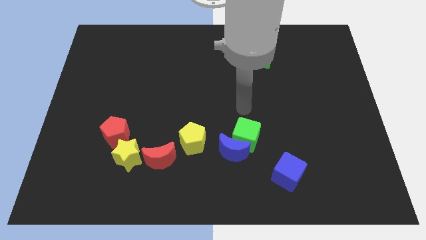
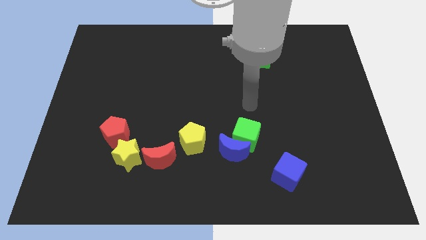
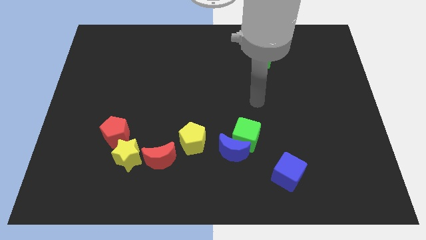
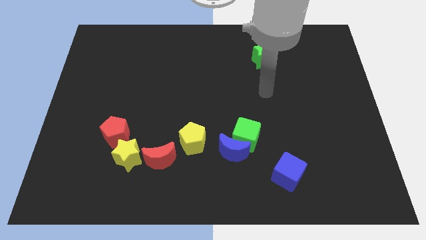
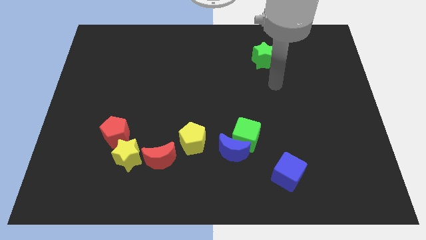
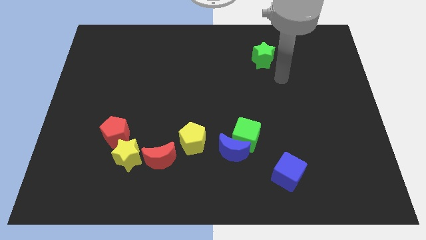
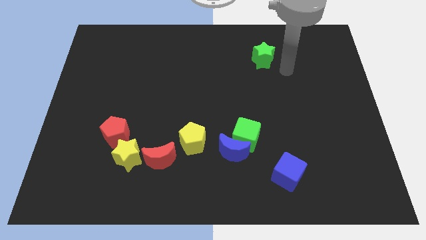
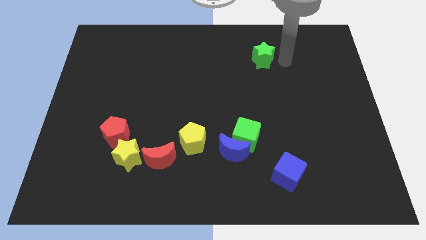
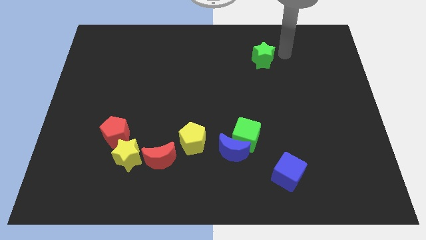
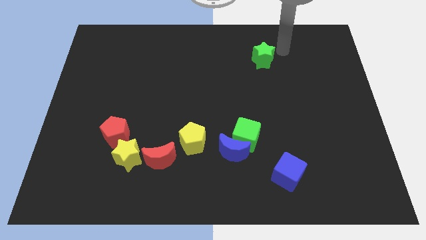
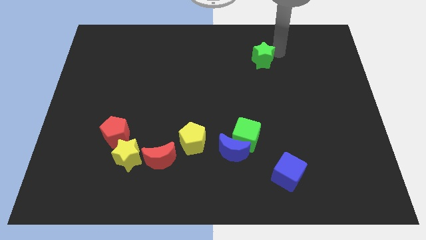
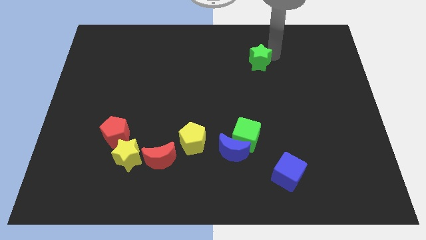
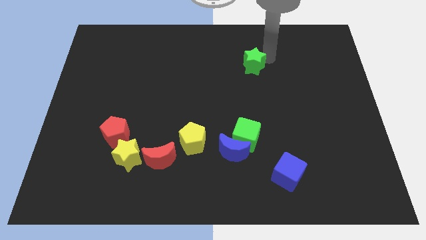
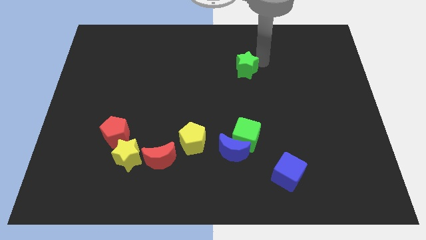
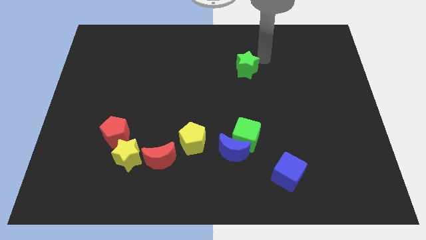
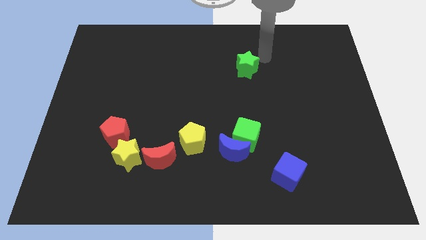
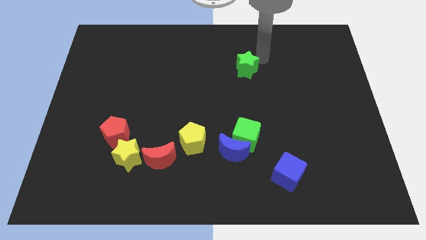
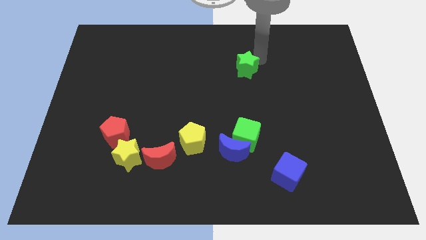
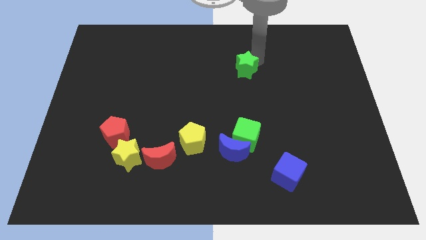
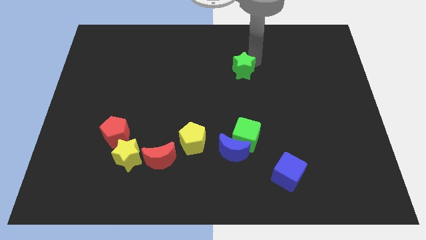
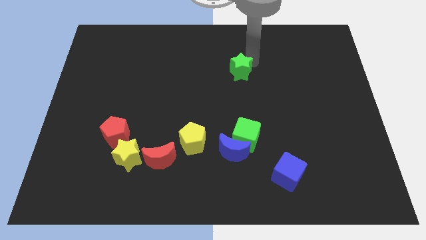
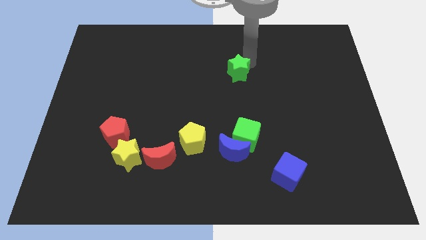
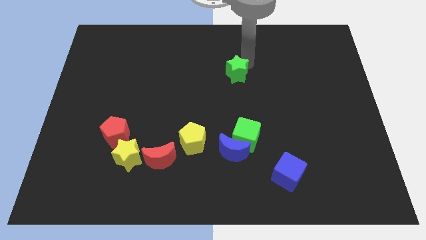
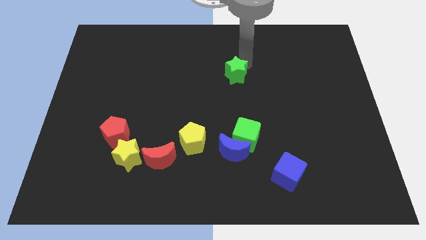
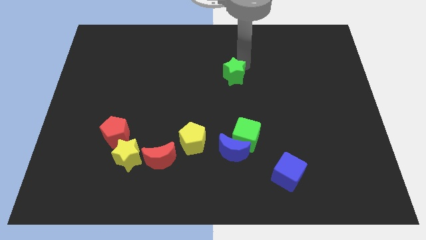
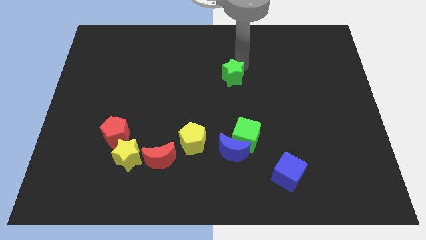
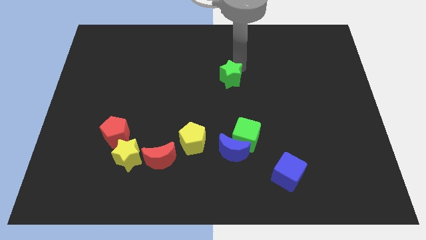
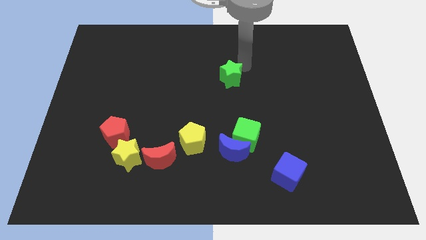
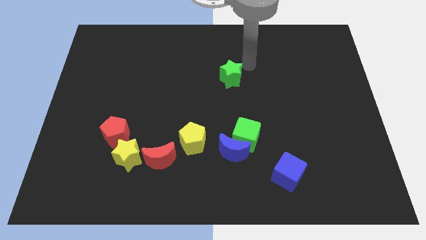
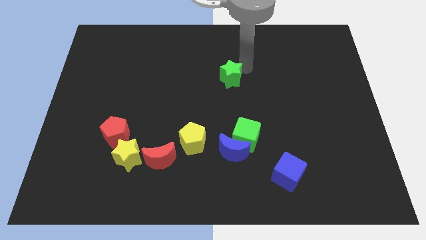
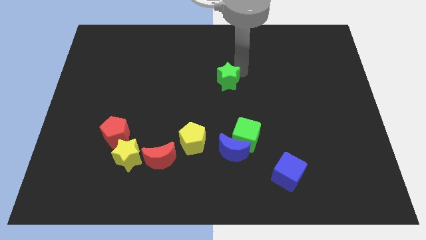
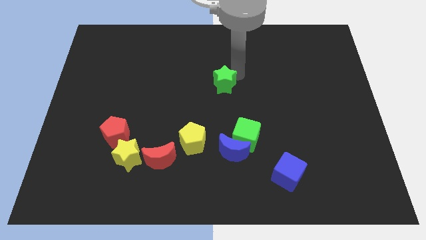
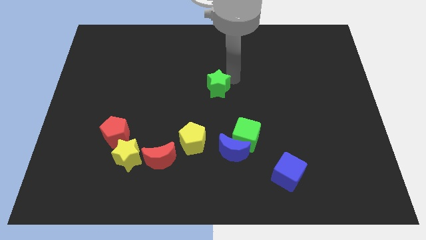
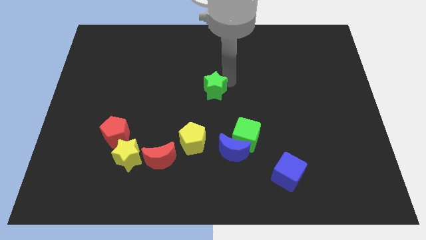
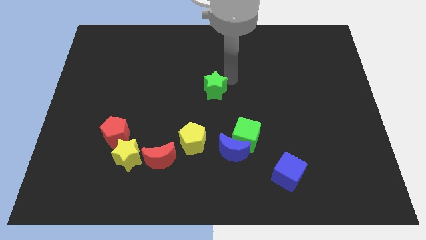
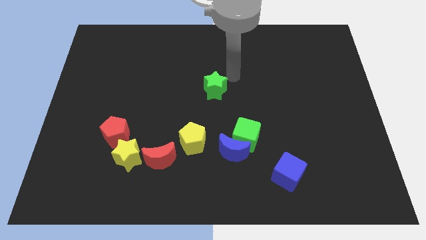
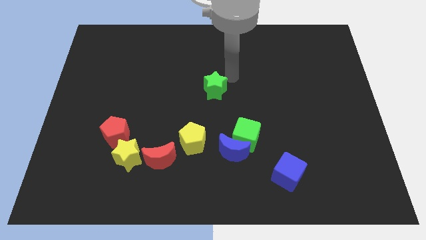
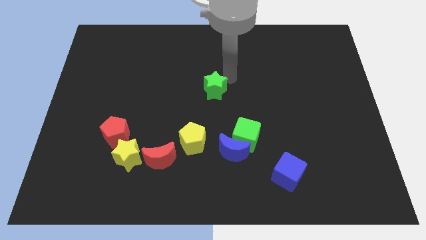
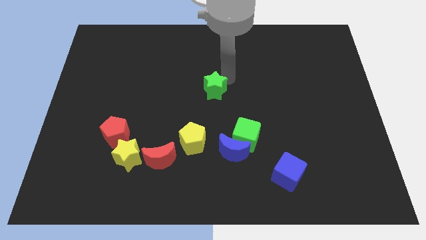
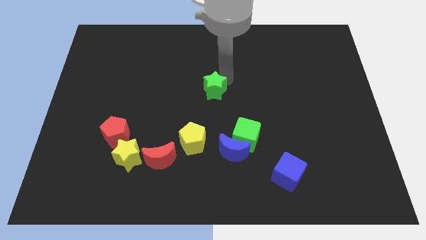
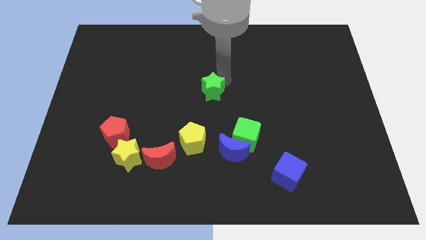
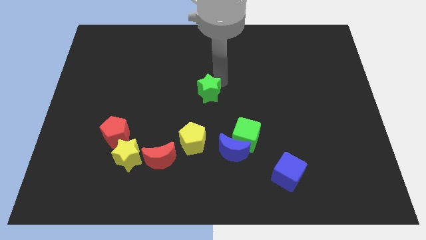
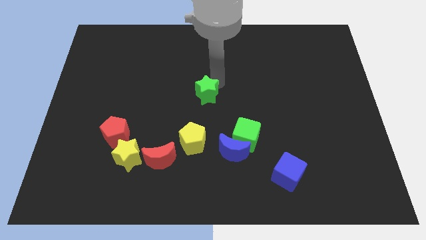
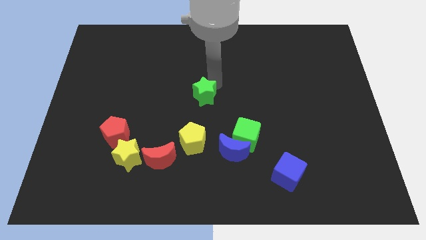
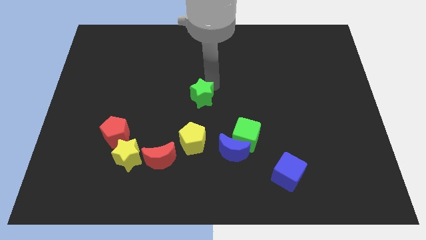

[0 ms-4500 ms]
slide the green star diagonally downwards and left

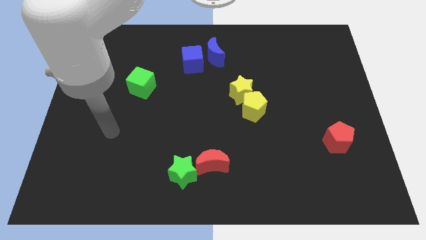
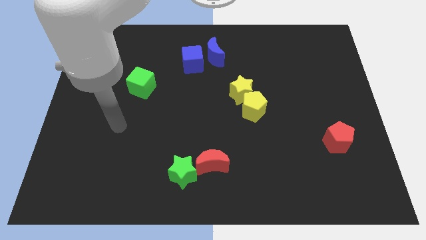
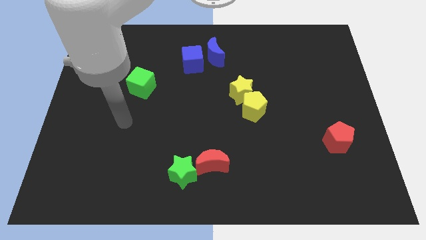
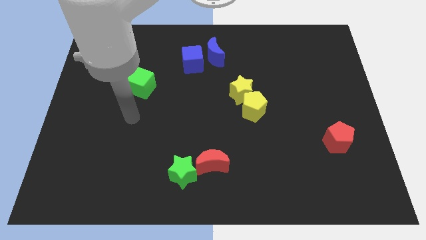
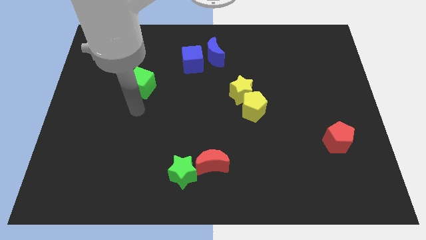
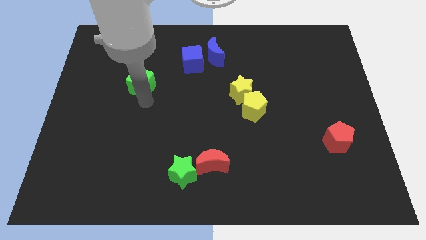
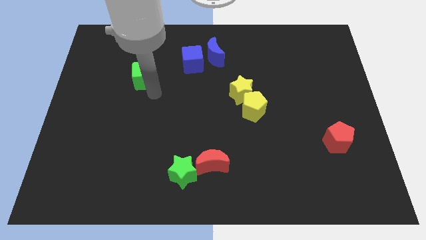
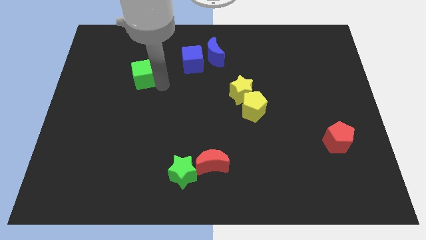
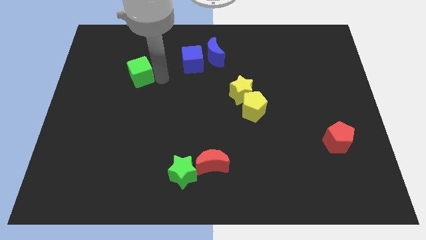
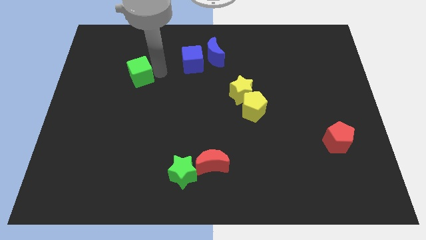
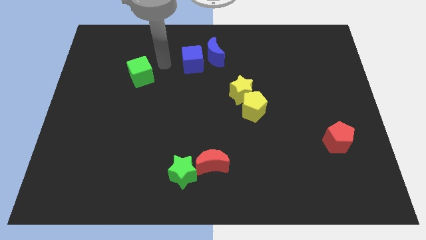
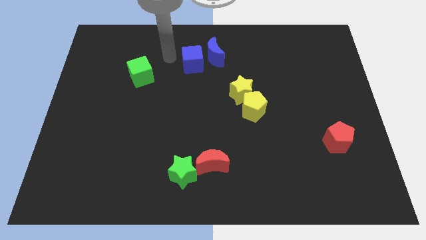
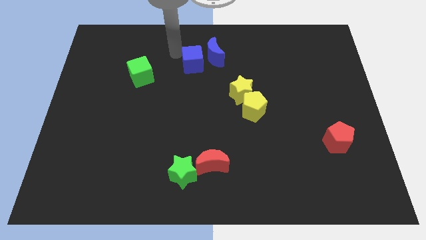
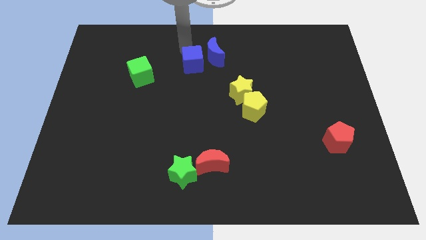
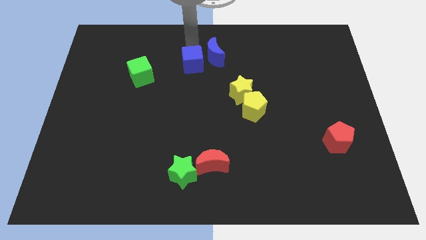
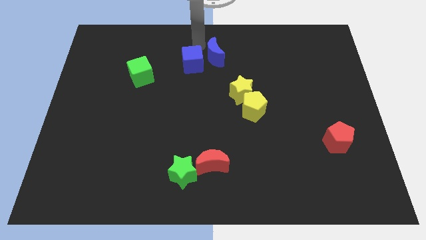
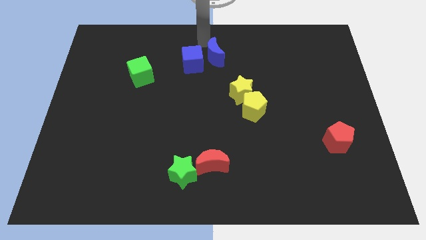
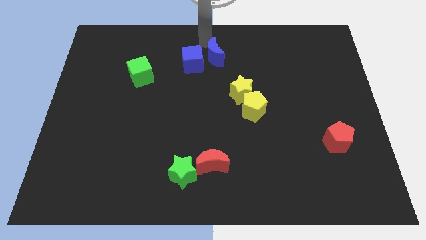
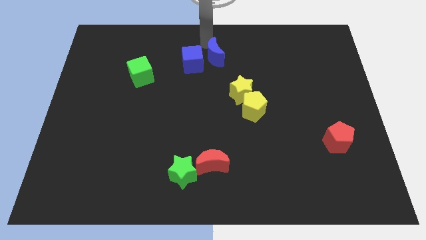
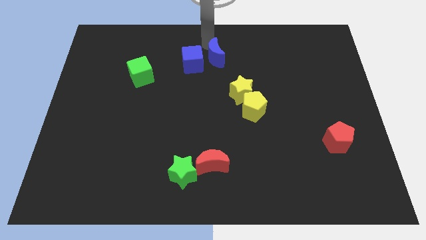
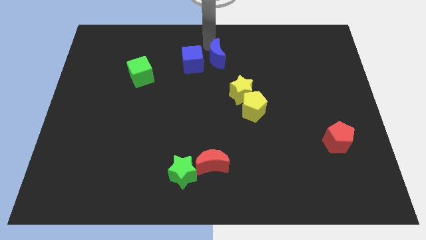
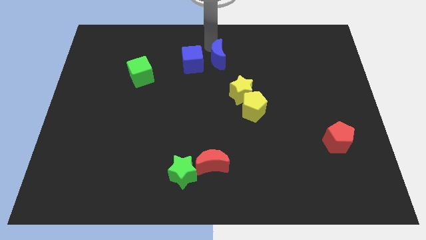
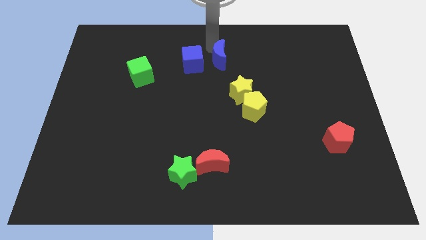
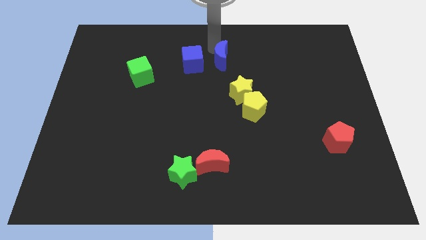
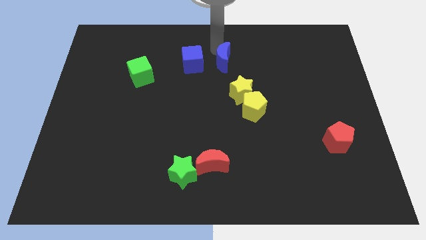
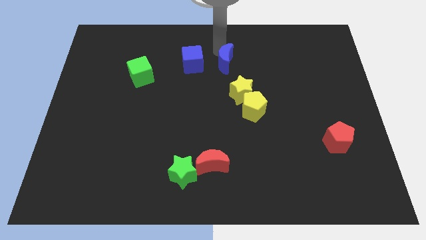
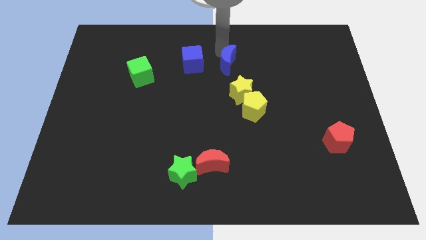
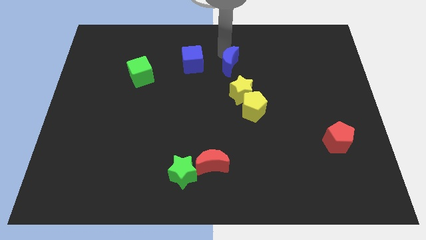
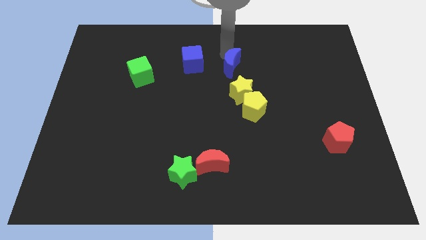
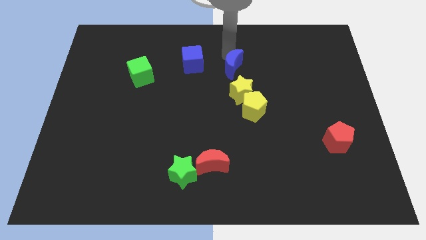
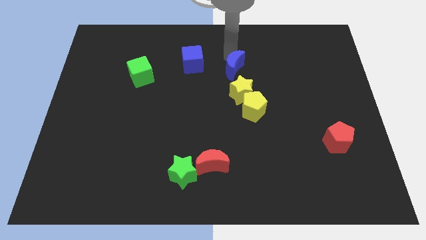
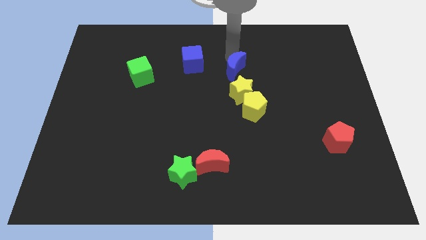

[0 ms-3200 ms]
move the blue moon somewhat downwards and right

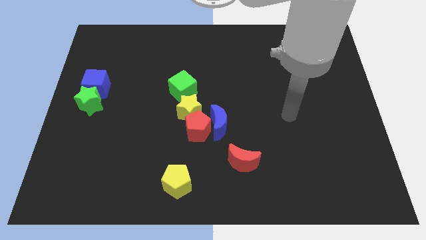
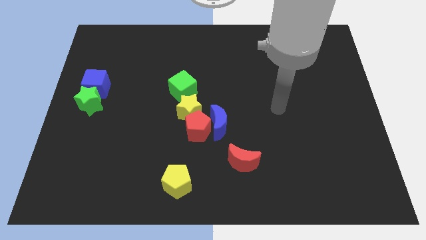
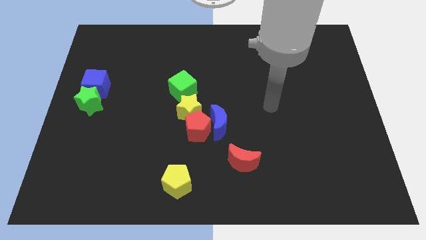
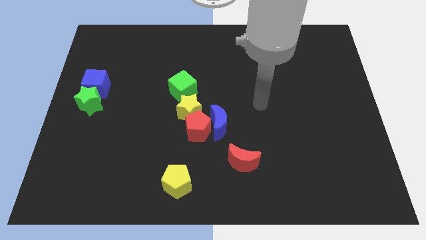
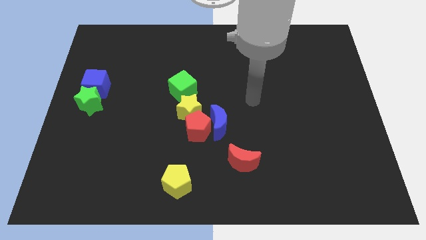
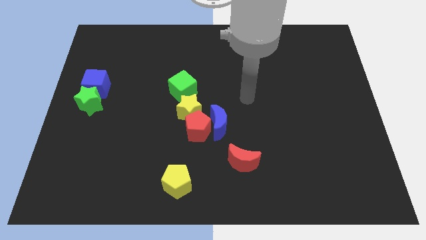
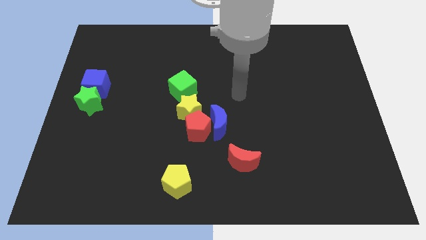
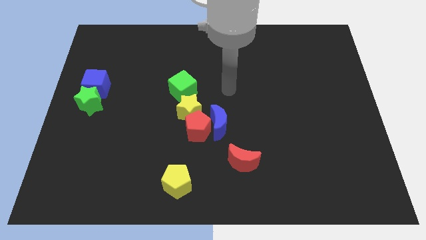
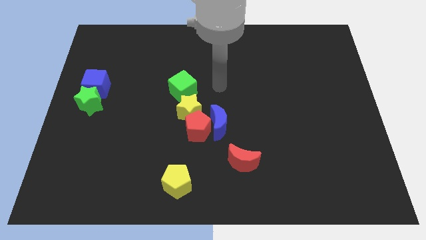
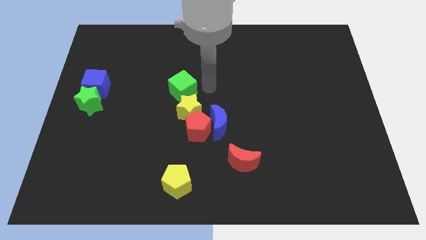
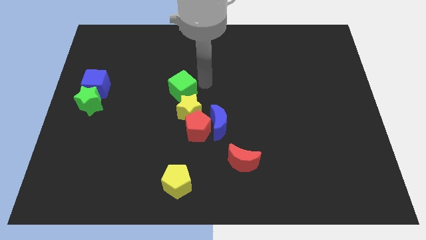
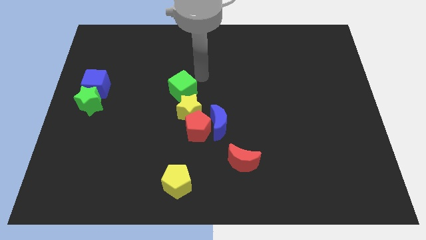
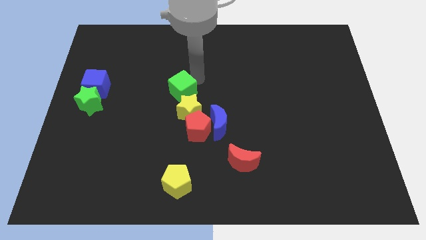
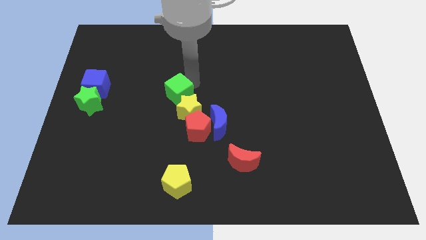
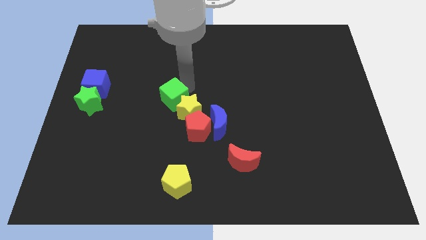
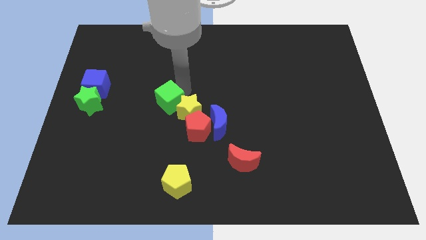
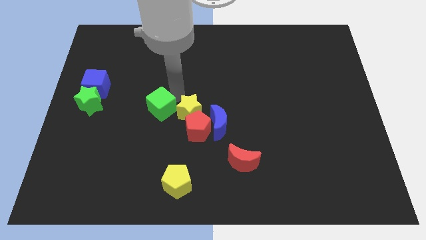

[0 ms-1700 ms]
move the green cube downwards and left a little
